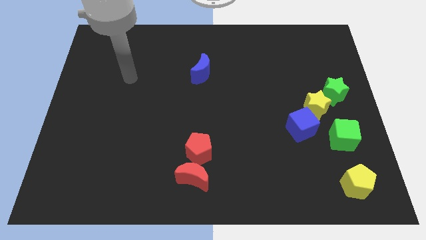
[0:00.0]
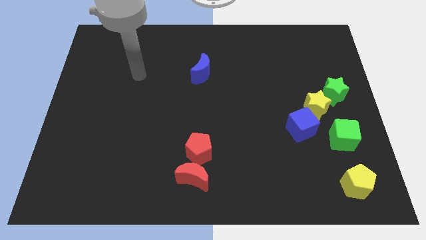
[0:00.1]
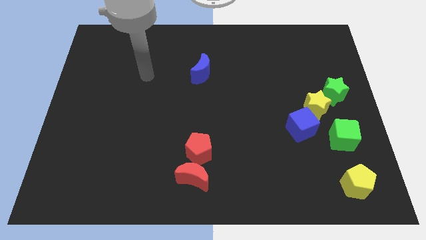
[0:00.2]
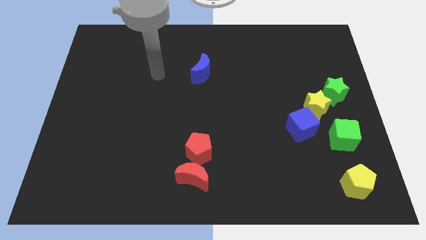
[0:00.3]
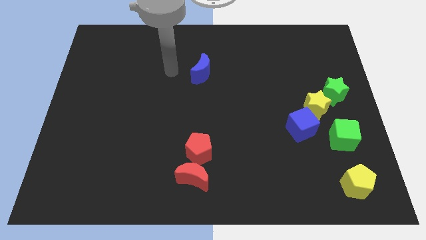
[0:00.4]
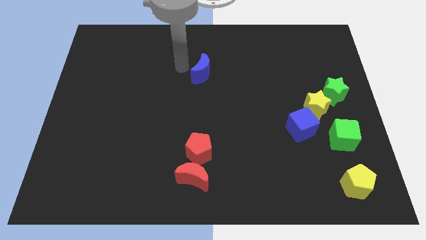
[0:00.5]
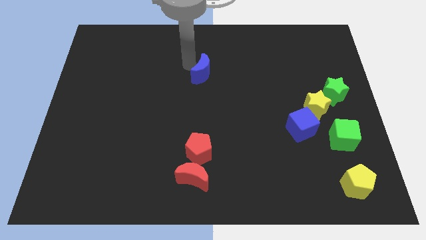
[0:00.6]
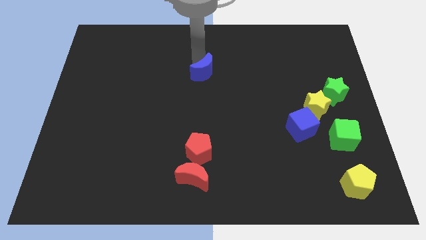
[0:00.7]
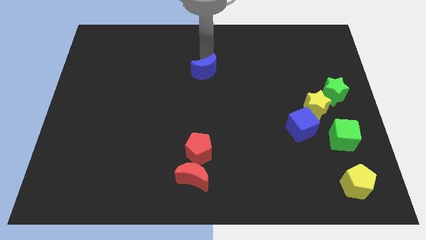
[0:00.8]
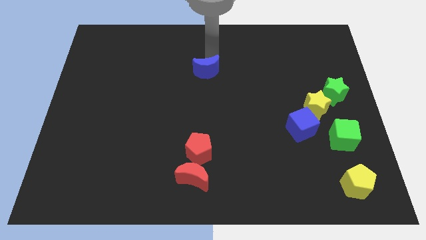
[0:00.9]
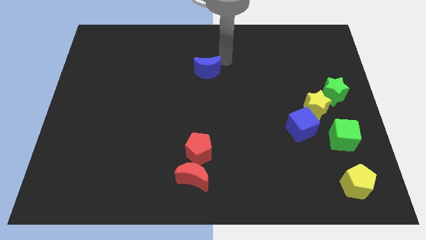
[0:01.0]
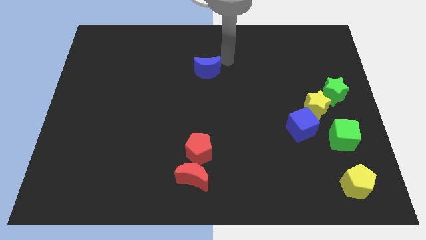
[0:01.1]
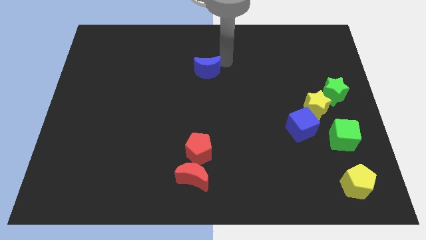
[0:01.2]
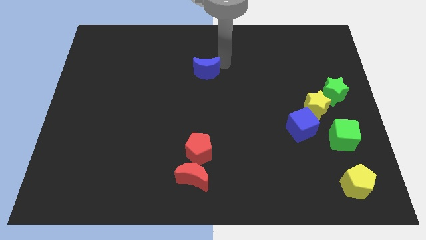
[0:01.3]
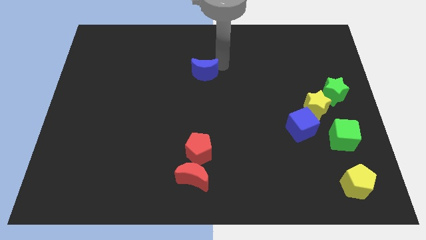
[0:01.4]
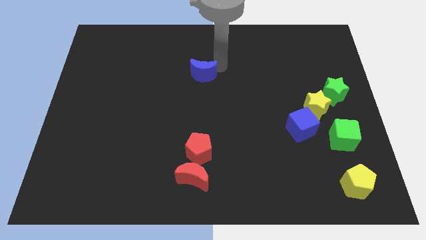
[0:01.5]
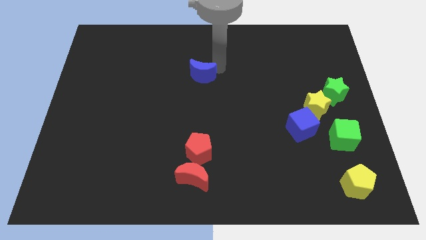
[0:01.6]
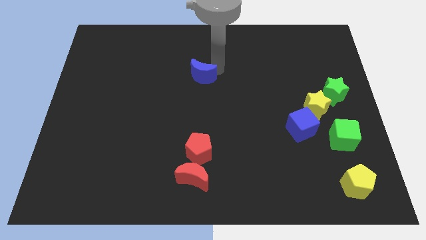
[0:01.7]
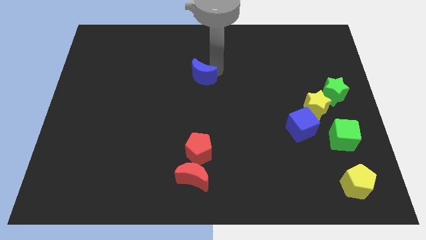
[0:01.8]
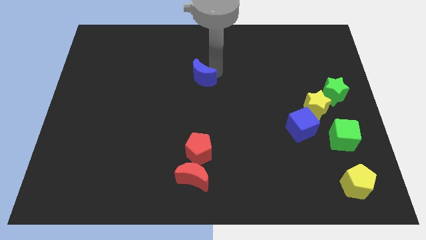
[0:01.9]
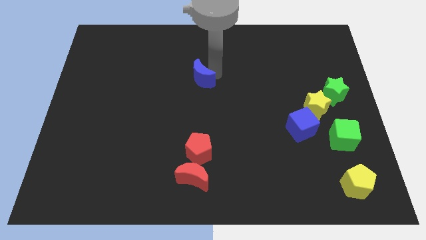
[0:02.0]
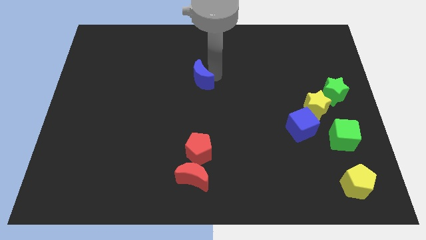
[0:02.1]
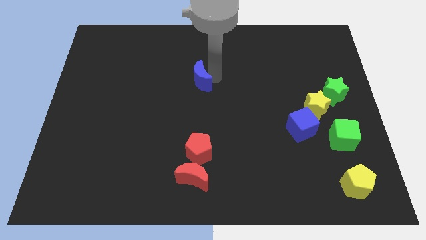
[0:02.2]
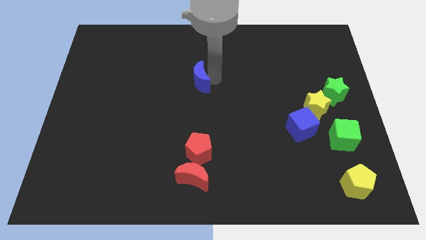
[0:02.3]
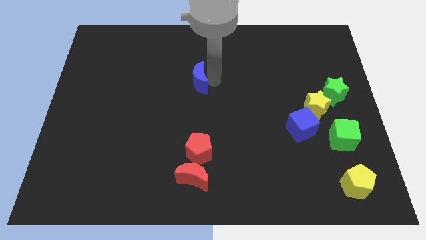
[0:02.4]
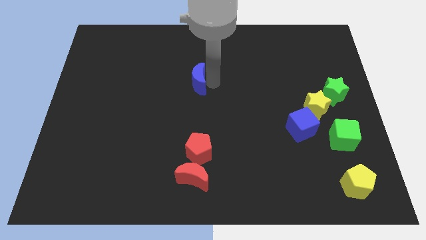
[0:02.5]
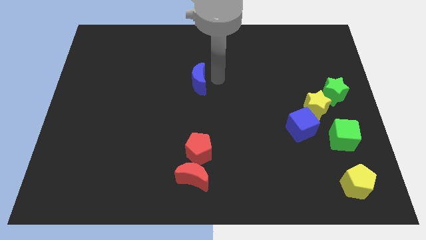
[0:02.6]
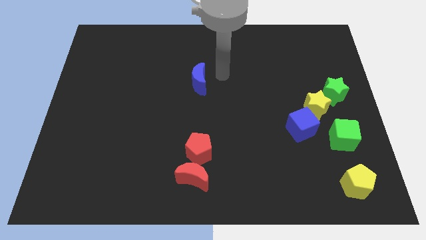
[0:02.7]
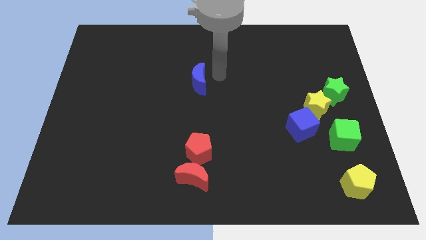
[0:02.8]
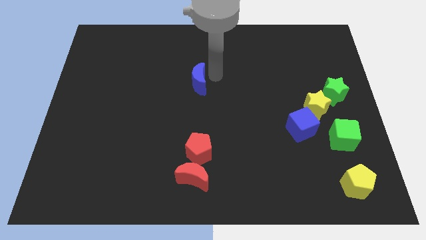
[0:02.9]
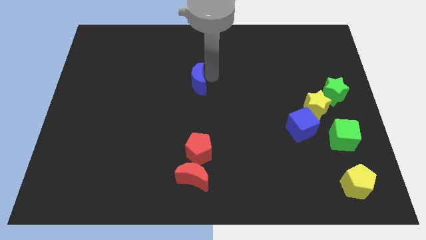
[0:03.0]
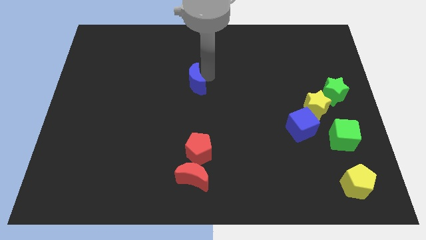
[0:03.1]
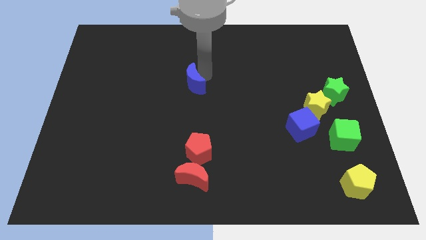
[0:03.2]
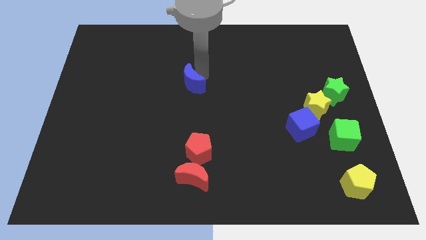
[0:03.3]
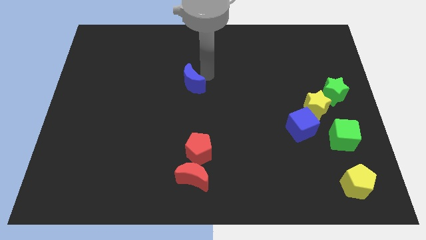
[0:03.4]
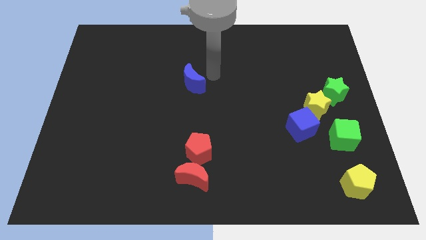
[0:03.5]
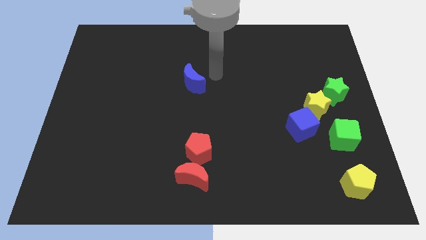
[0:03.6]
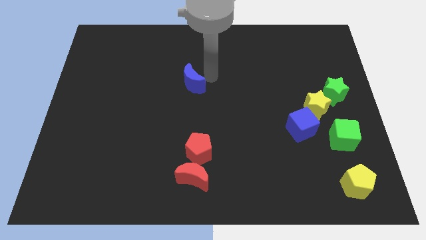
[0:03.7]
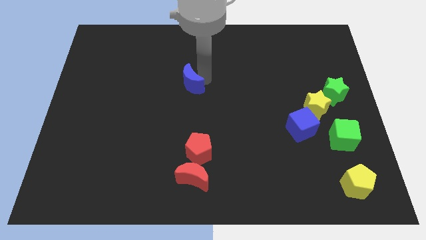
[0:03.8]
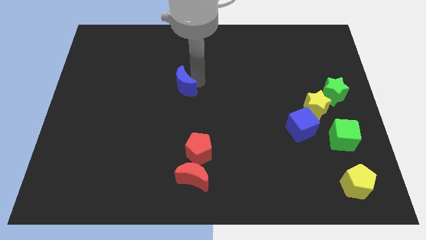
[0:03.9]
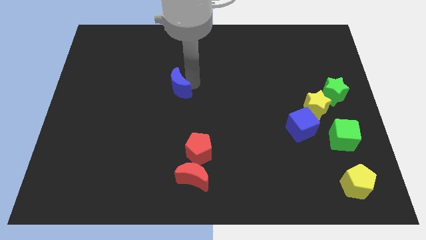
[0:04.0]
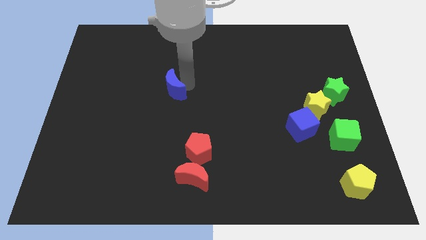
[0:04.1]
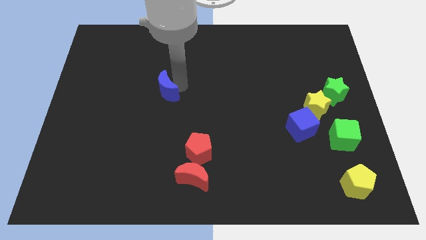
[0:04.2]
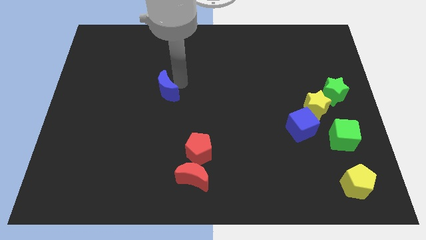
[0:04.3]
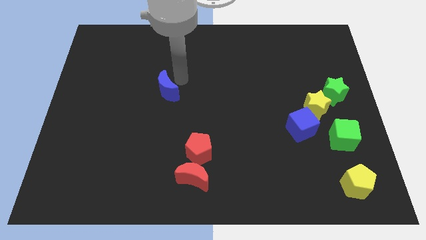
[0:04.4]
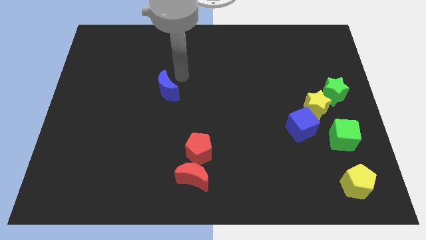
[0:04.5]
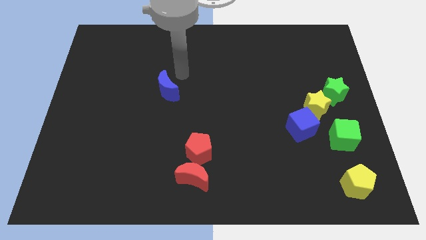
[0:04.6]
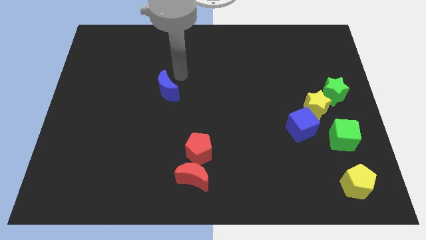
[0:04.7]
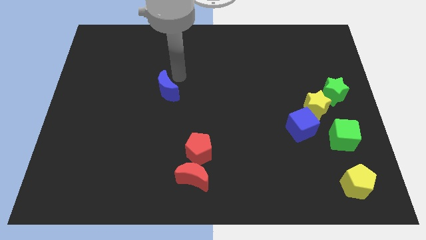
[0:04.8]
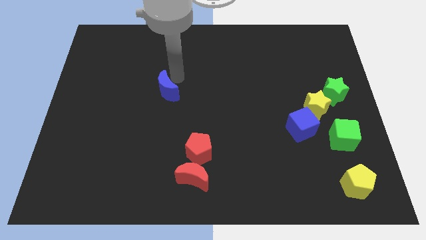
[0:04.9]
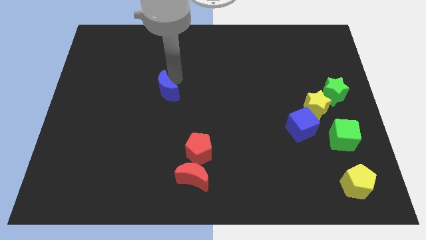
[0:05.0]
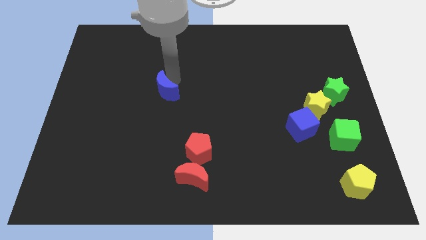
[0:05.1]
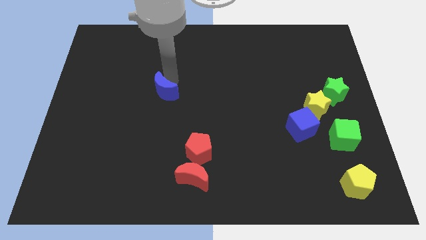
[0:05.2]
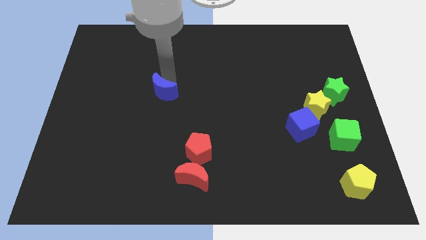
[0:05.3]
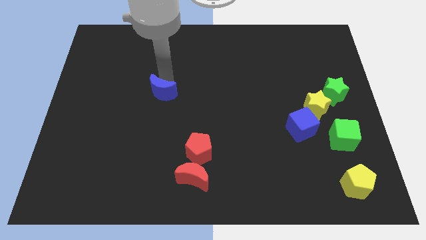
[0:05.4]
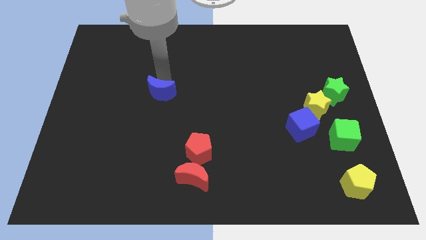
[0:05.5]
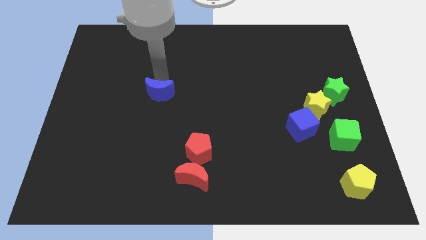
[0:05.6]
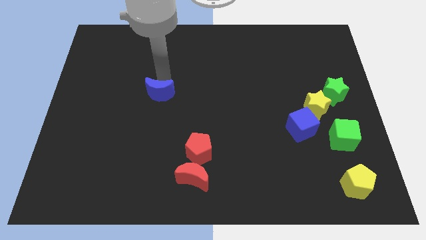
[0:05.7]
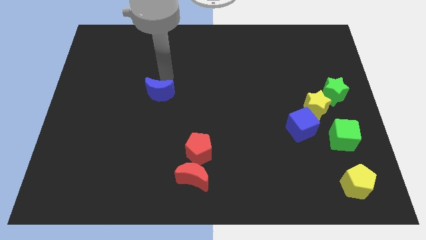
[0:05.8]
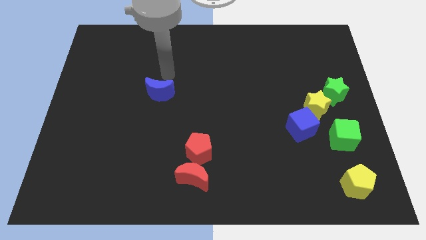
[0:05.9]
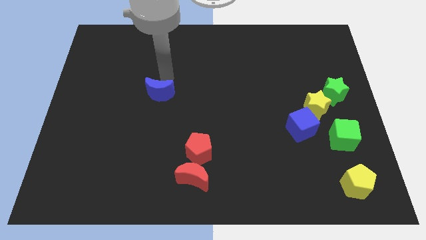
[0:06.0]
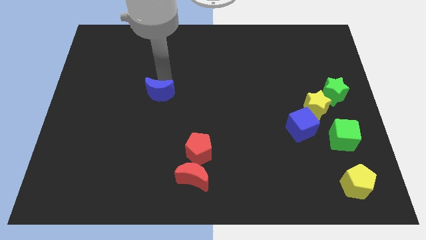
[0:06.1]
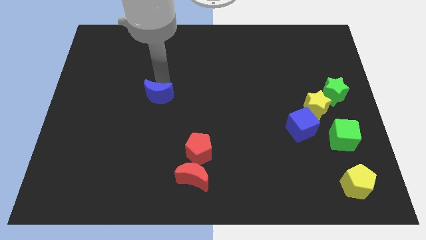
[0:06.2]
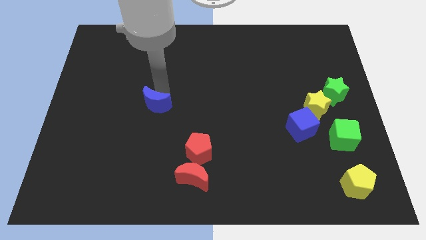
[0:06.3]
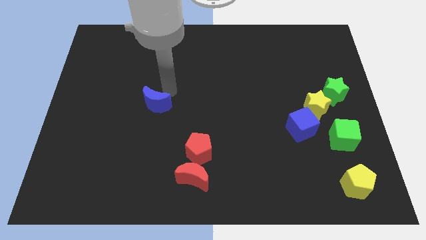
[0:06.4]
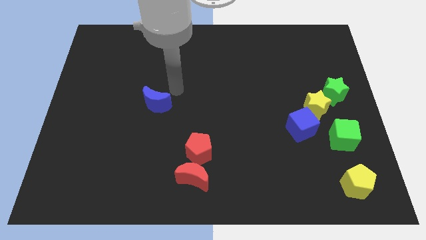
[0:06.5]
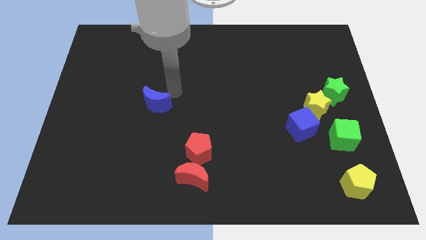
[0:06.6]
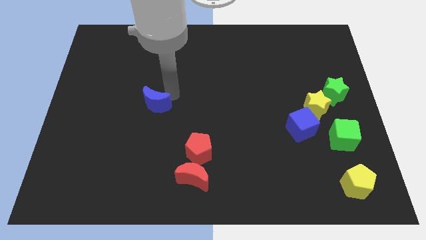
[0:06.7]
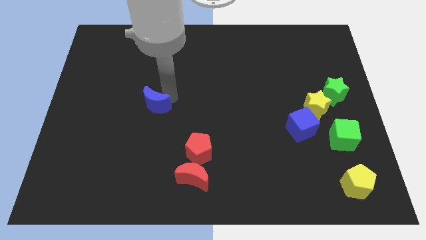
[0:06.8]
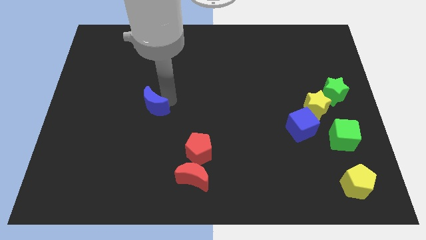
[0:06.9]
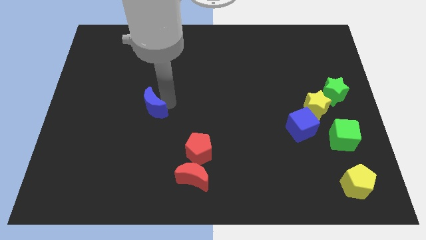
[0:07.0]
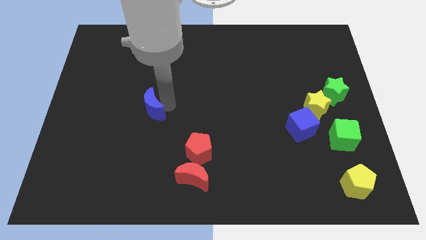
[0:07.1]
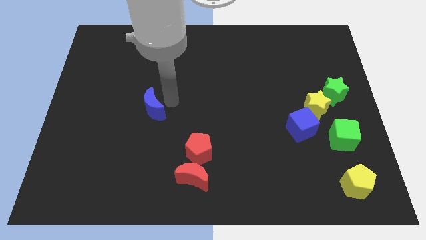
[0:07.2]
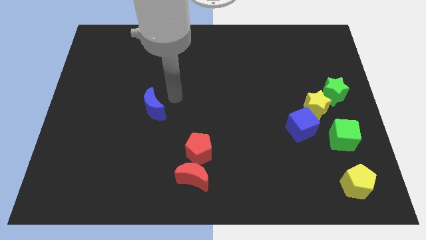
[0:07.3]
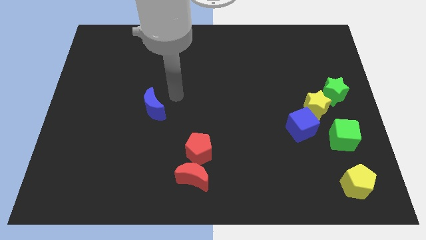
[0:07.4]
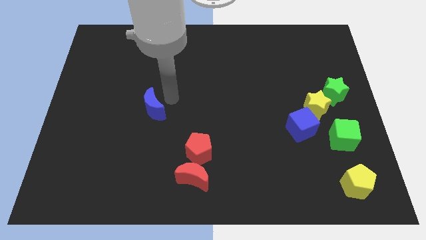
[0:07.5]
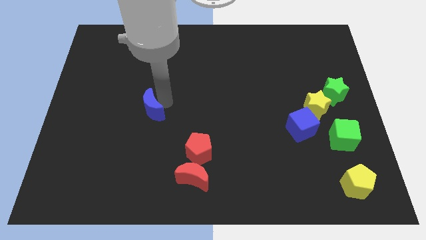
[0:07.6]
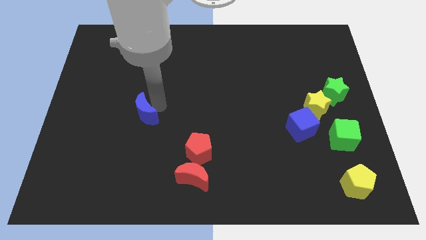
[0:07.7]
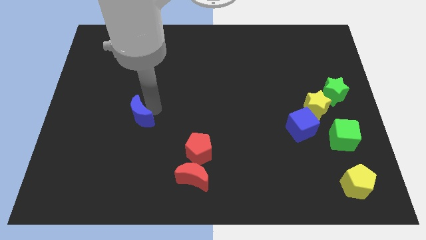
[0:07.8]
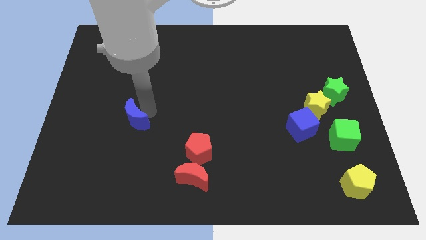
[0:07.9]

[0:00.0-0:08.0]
push the blue moon diagonally down and to the left
